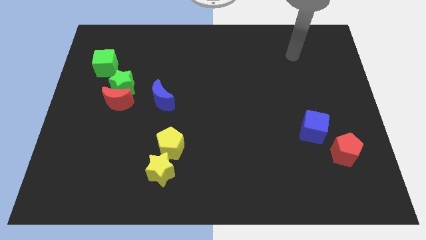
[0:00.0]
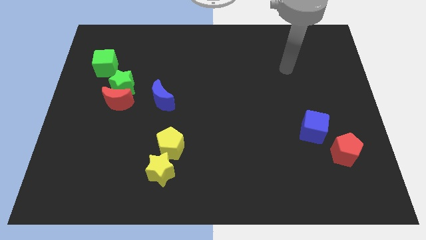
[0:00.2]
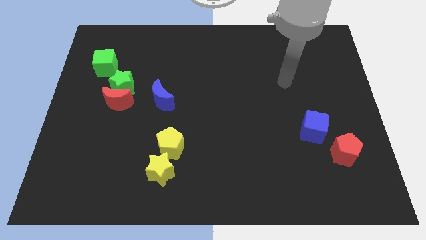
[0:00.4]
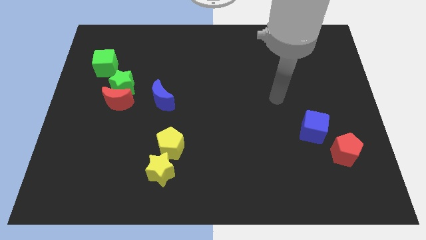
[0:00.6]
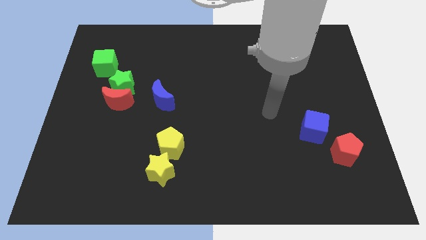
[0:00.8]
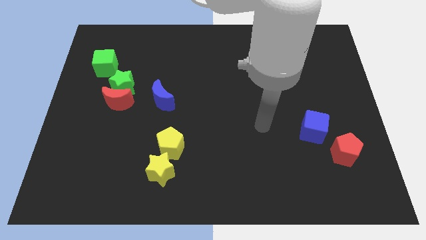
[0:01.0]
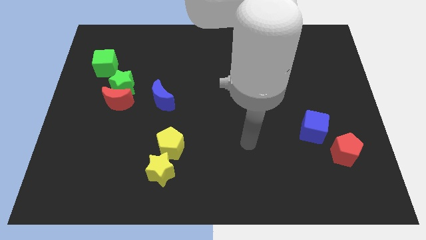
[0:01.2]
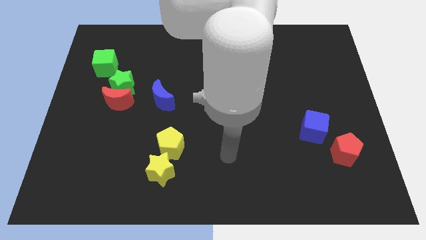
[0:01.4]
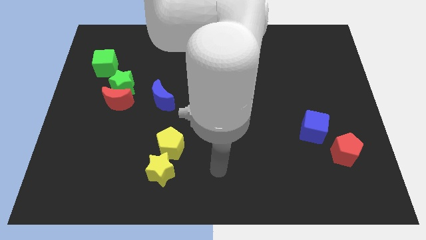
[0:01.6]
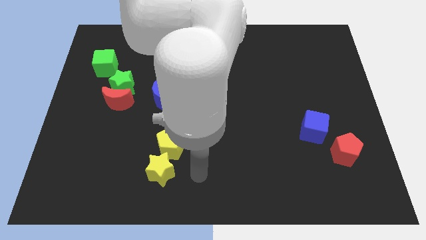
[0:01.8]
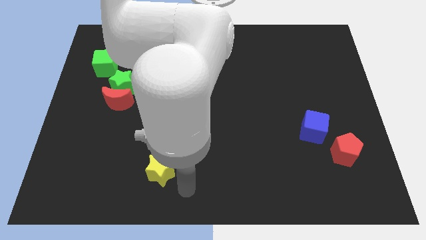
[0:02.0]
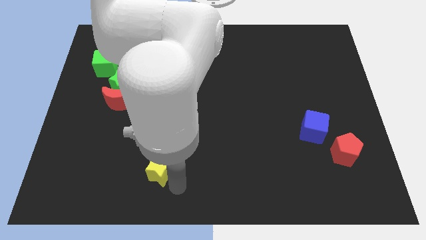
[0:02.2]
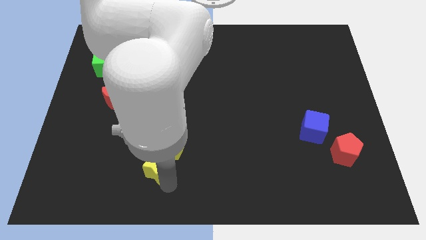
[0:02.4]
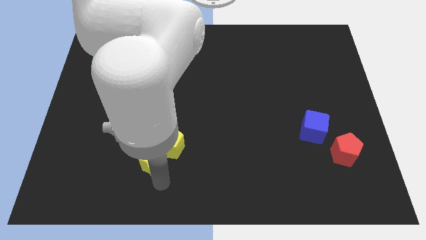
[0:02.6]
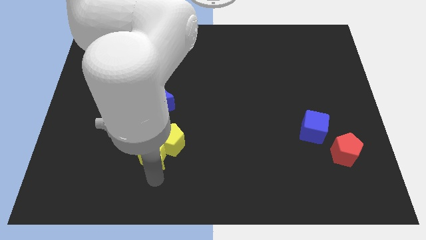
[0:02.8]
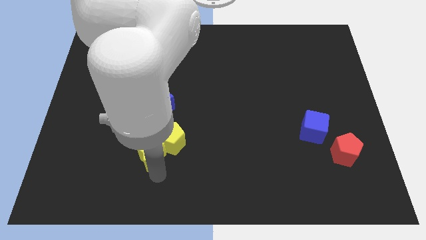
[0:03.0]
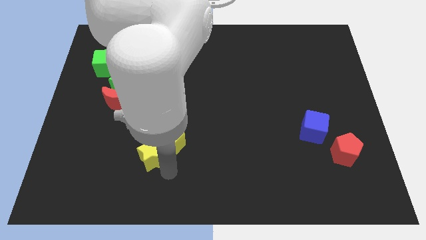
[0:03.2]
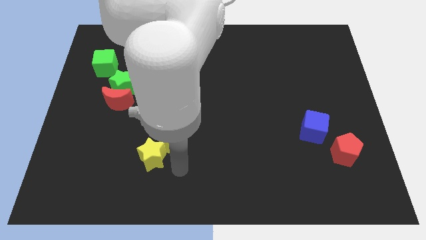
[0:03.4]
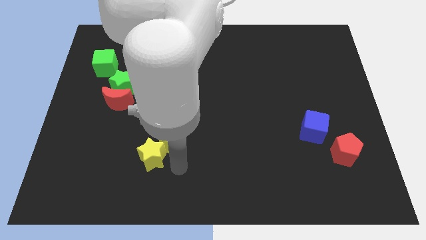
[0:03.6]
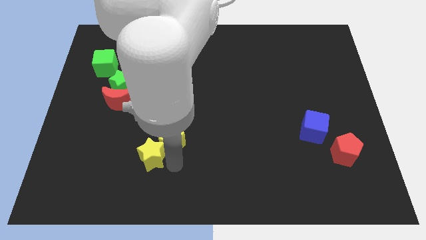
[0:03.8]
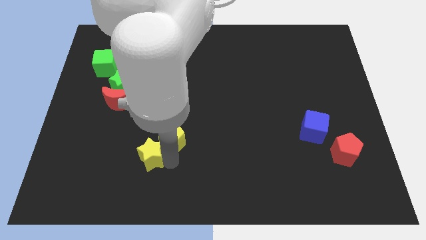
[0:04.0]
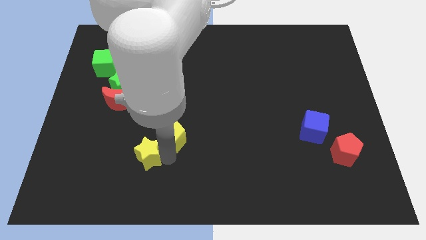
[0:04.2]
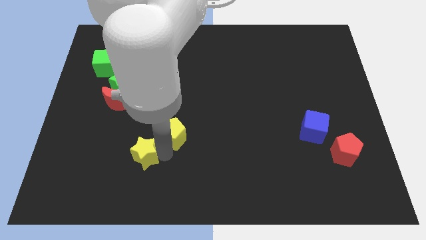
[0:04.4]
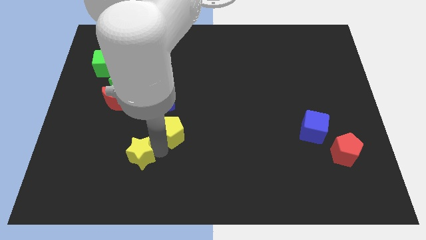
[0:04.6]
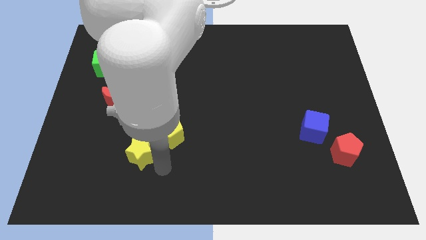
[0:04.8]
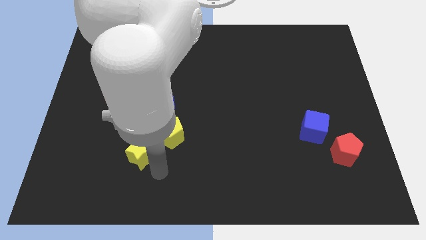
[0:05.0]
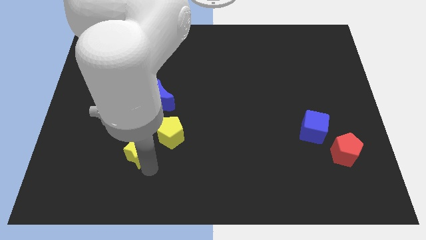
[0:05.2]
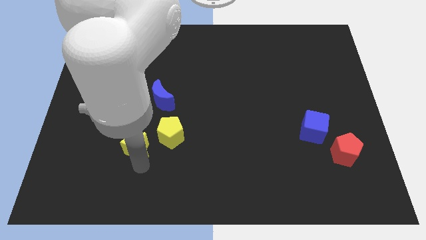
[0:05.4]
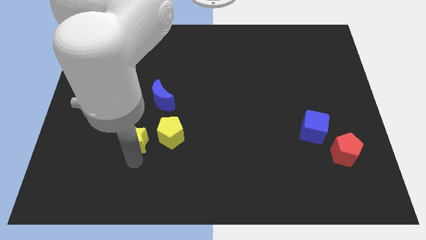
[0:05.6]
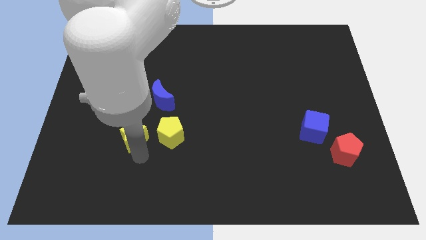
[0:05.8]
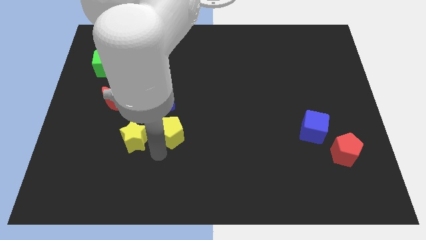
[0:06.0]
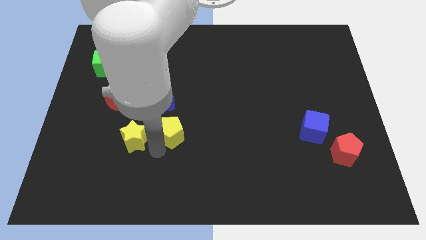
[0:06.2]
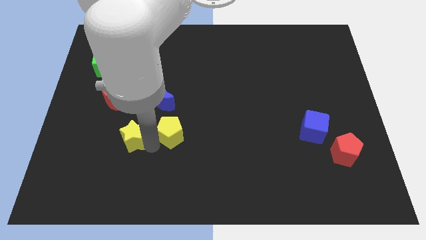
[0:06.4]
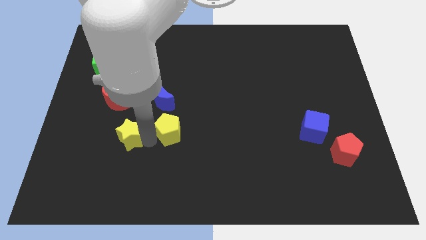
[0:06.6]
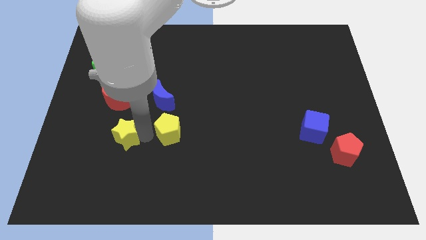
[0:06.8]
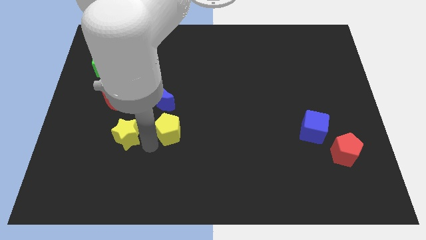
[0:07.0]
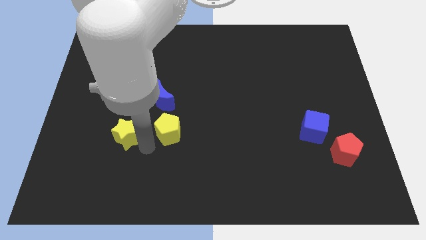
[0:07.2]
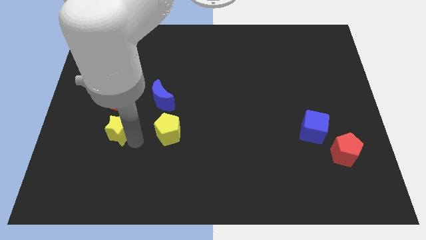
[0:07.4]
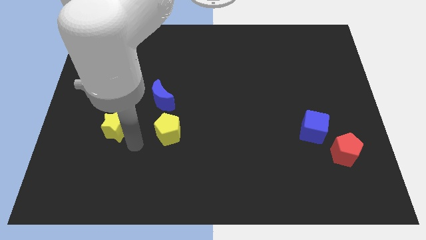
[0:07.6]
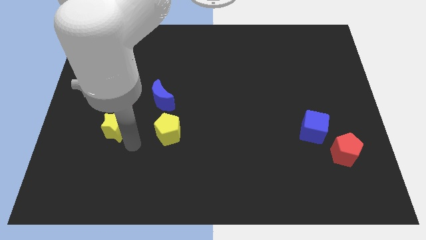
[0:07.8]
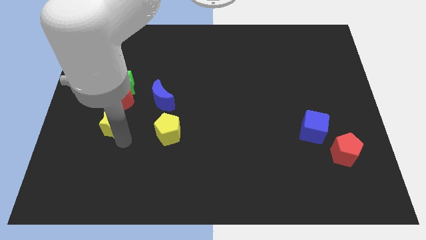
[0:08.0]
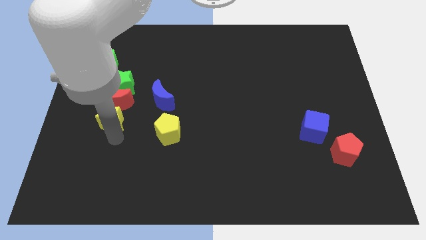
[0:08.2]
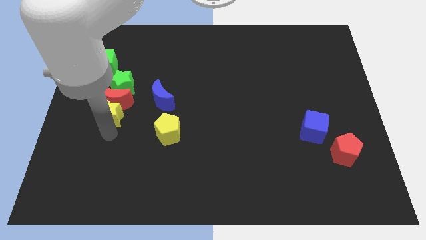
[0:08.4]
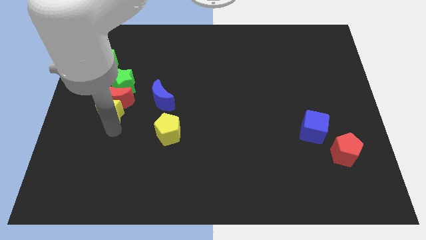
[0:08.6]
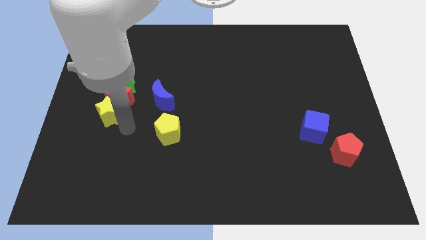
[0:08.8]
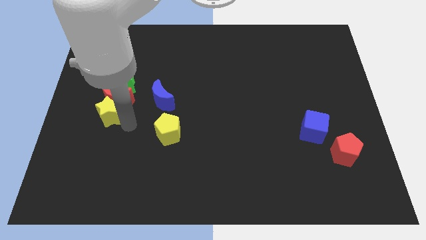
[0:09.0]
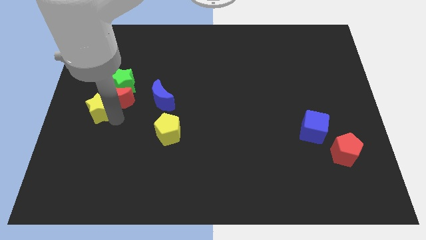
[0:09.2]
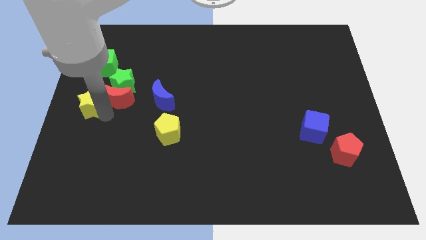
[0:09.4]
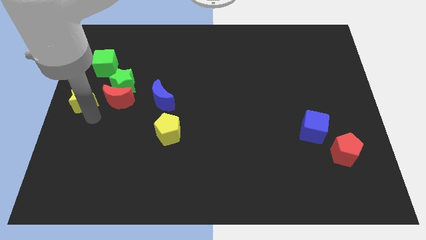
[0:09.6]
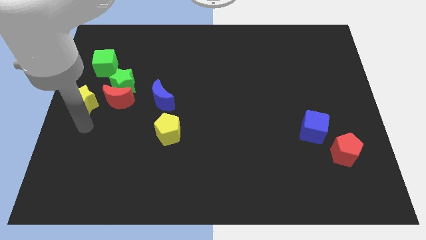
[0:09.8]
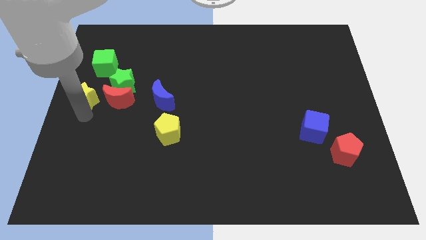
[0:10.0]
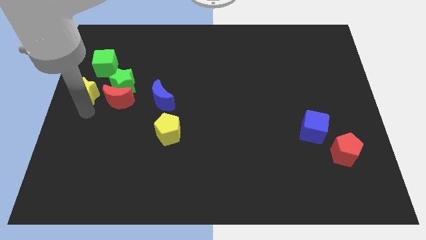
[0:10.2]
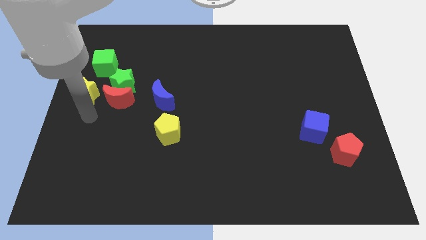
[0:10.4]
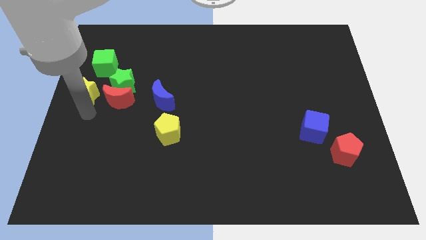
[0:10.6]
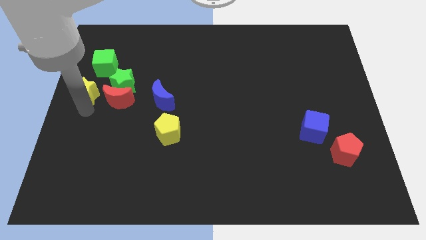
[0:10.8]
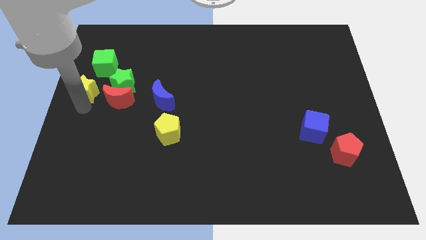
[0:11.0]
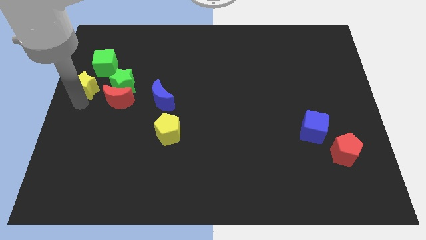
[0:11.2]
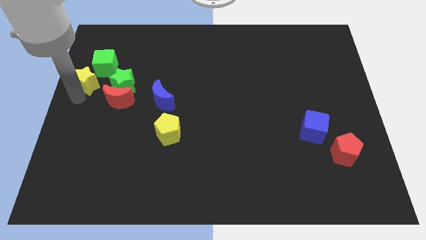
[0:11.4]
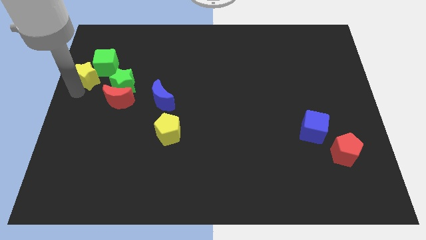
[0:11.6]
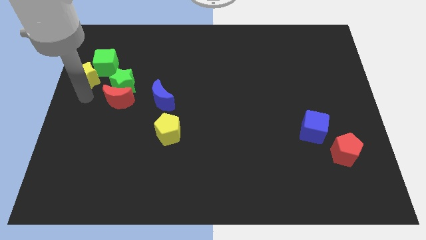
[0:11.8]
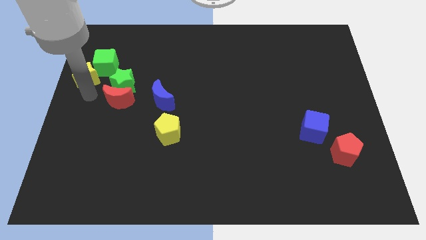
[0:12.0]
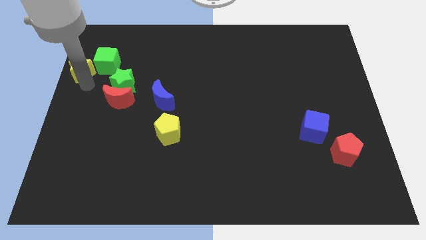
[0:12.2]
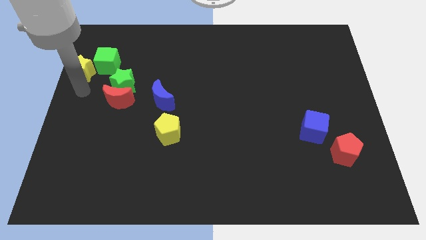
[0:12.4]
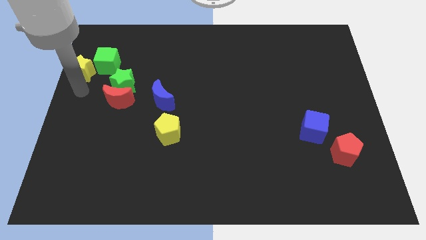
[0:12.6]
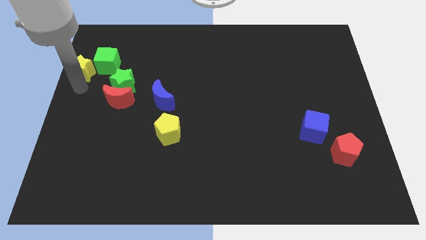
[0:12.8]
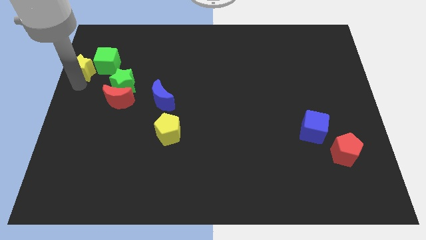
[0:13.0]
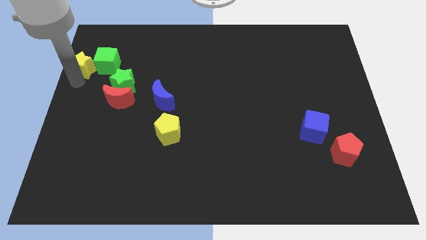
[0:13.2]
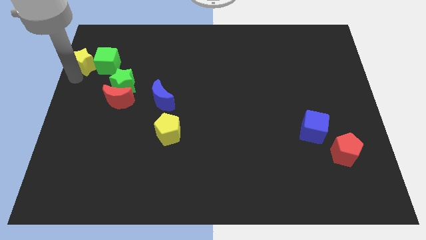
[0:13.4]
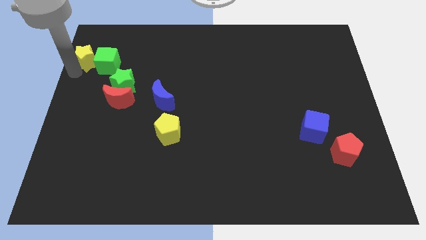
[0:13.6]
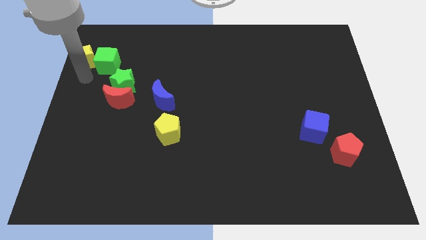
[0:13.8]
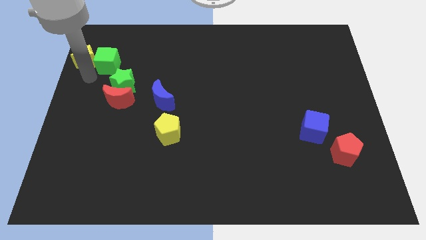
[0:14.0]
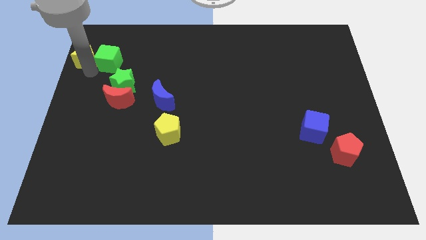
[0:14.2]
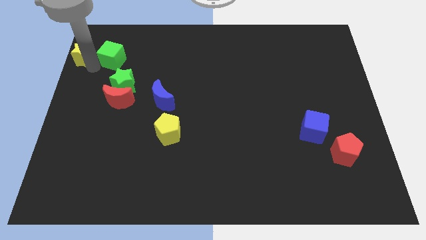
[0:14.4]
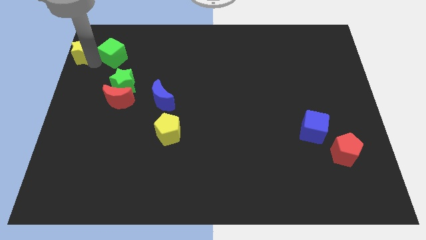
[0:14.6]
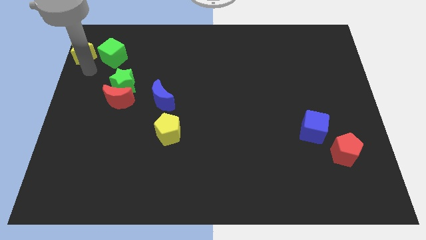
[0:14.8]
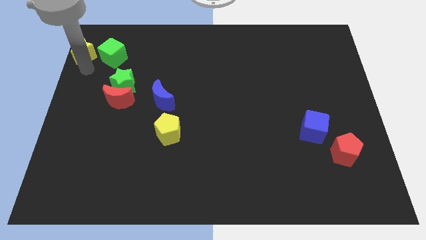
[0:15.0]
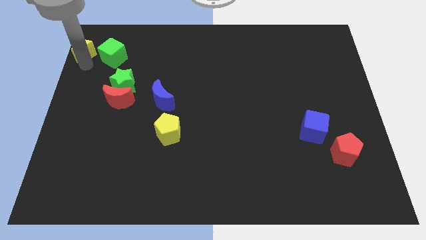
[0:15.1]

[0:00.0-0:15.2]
slide the yellow star to the top left corner
